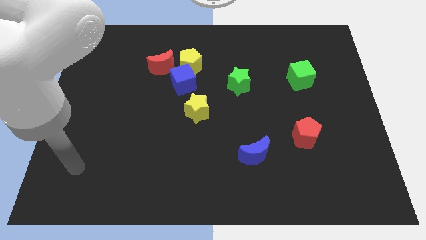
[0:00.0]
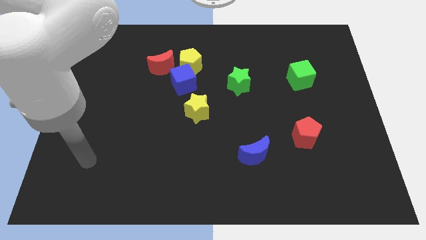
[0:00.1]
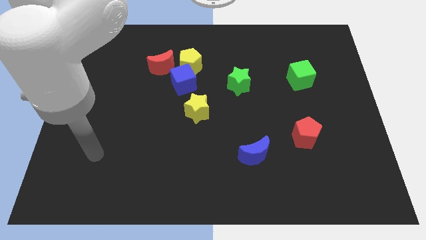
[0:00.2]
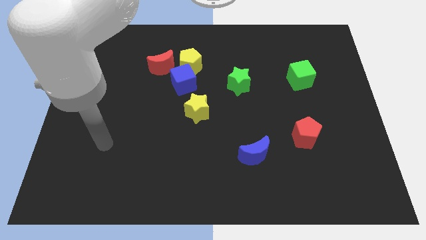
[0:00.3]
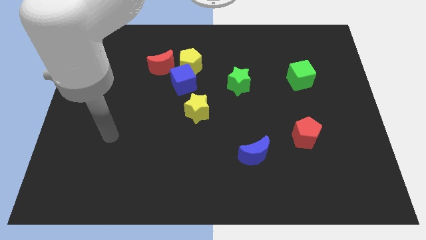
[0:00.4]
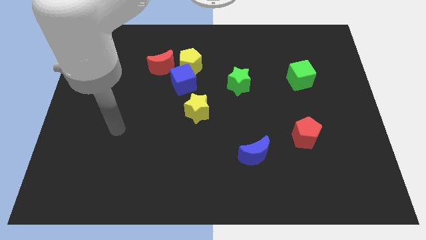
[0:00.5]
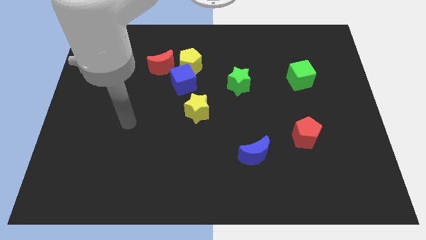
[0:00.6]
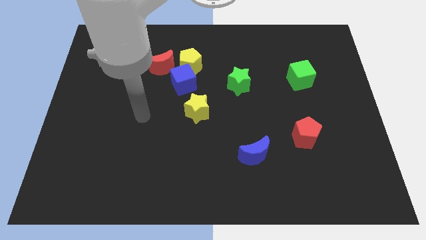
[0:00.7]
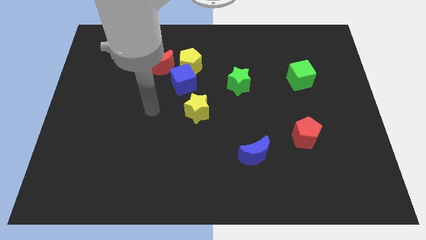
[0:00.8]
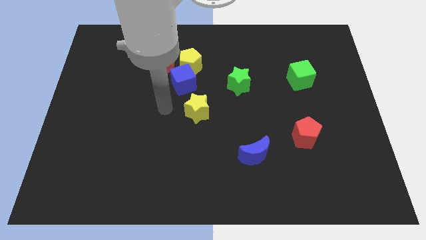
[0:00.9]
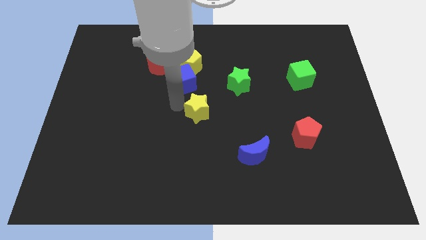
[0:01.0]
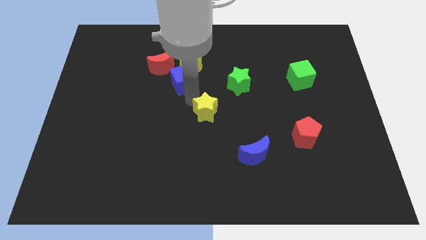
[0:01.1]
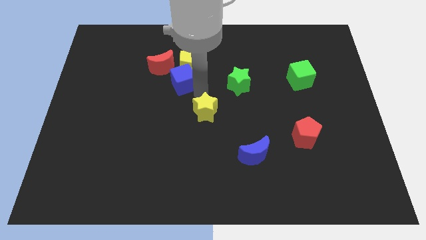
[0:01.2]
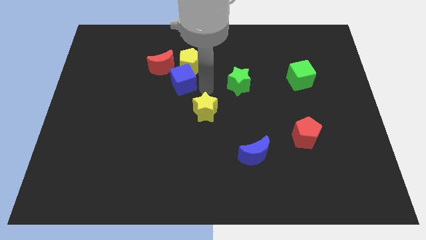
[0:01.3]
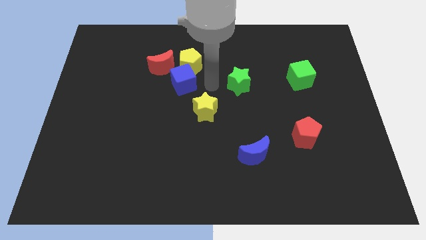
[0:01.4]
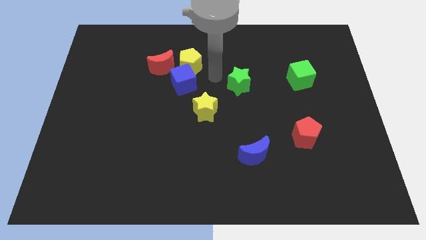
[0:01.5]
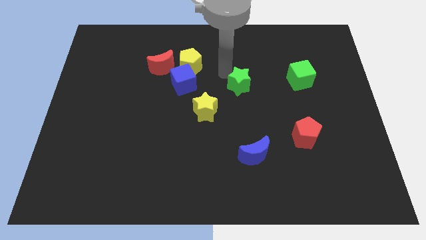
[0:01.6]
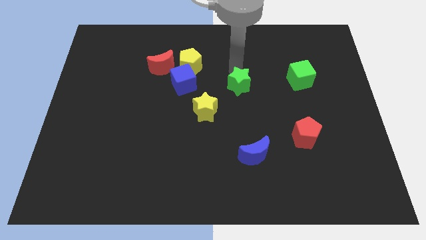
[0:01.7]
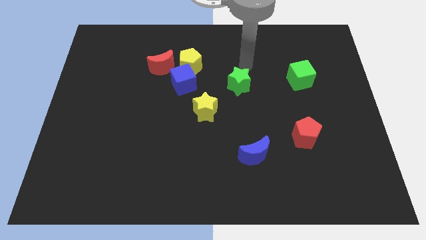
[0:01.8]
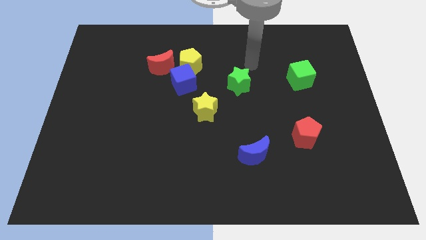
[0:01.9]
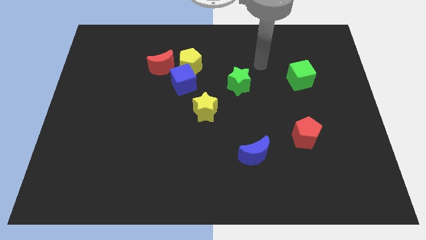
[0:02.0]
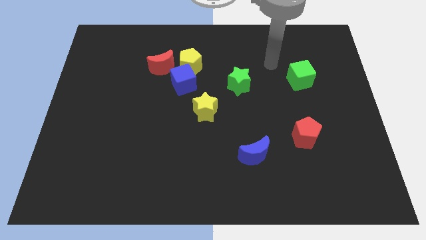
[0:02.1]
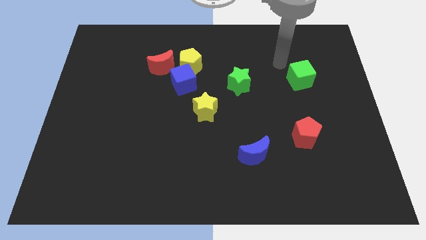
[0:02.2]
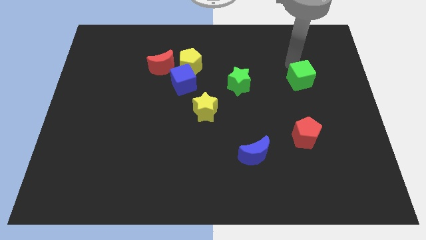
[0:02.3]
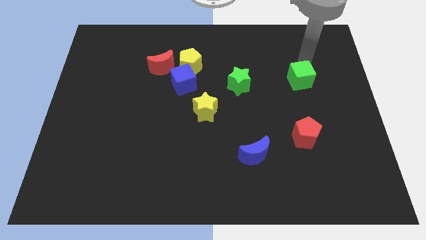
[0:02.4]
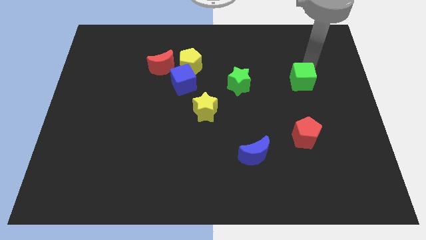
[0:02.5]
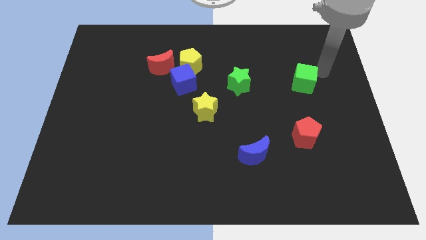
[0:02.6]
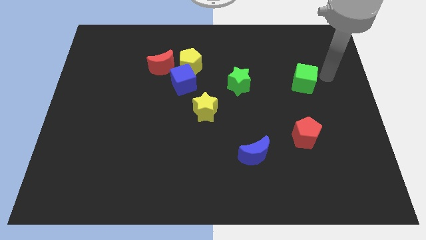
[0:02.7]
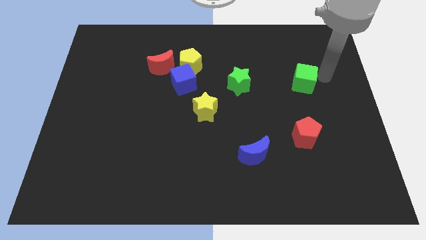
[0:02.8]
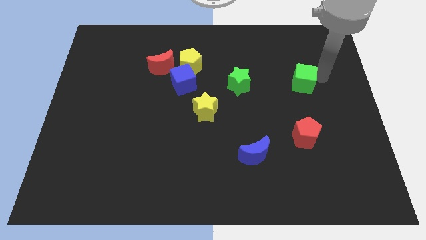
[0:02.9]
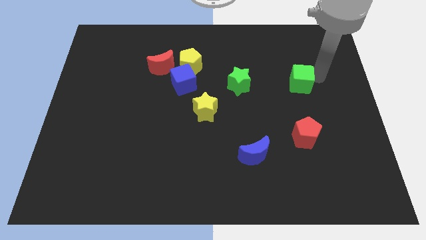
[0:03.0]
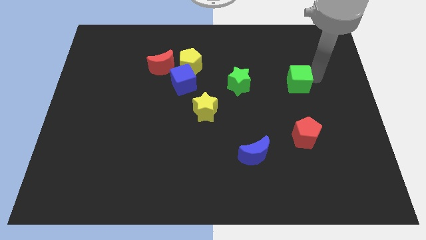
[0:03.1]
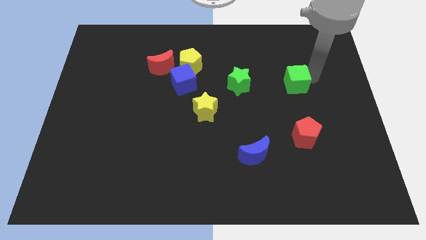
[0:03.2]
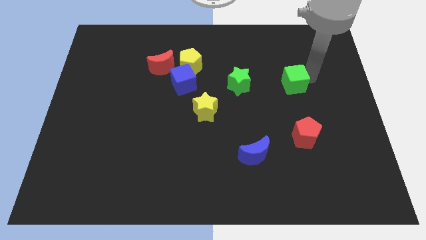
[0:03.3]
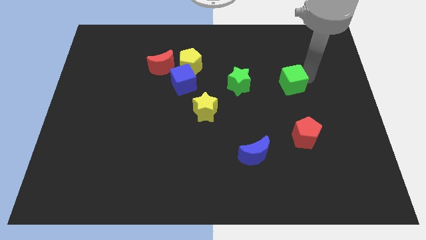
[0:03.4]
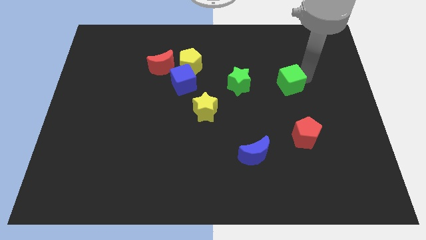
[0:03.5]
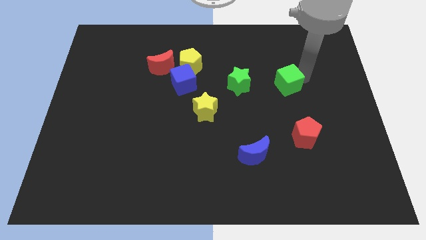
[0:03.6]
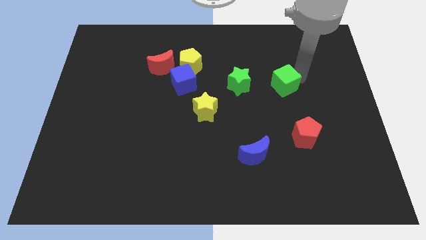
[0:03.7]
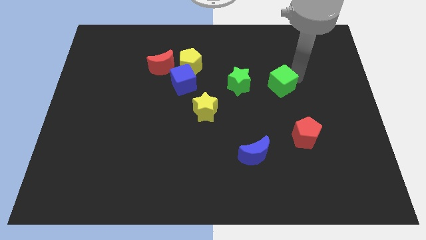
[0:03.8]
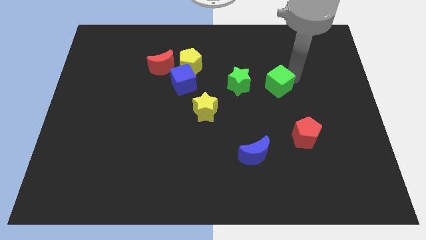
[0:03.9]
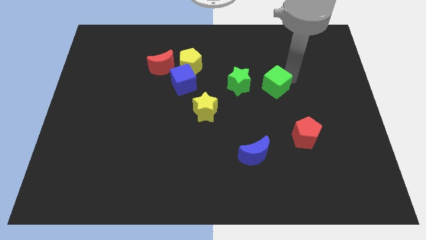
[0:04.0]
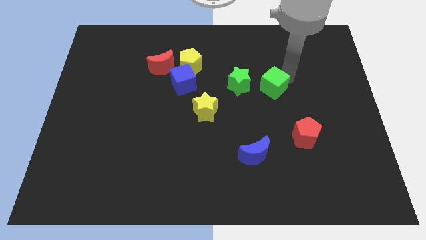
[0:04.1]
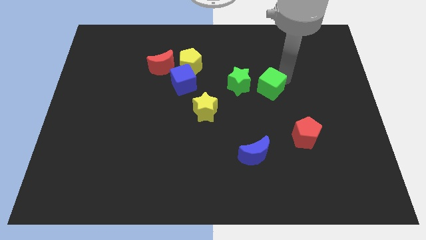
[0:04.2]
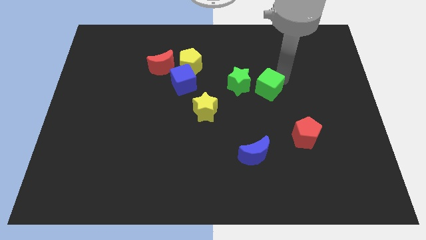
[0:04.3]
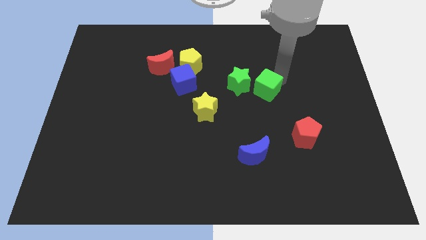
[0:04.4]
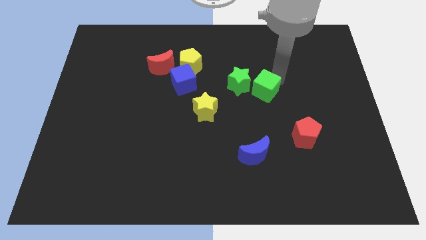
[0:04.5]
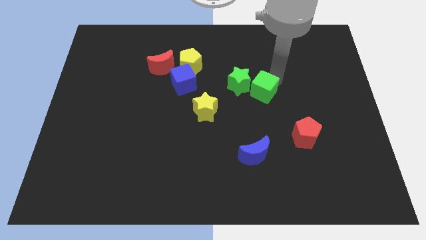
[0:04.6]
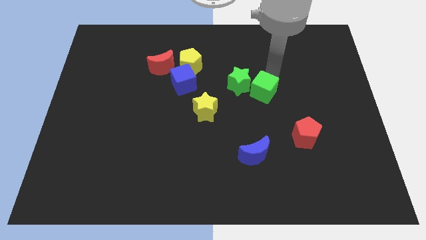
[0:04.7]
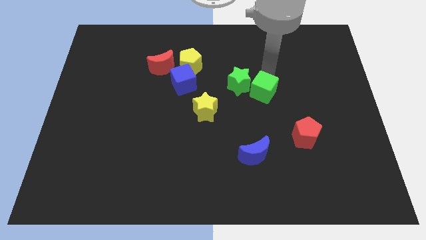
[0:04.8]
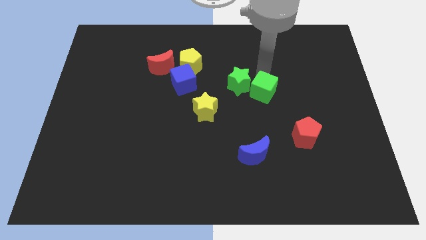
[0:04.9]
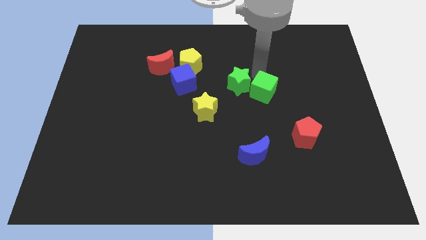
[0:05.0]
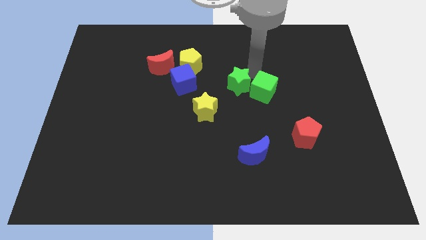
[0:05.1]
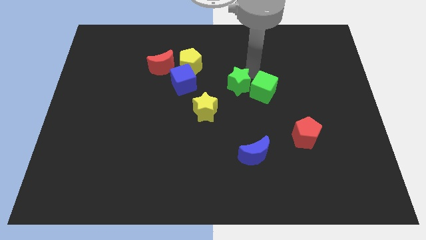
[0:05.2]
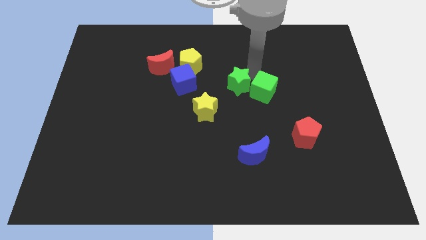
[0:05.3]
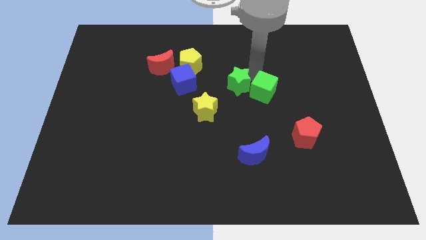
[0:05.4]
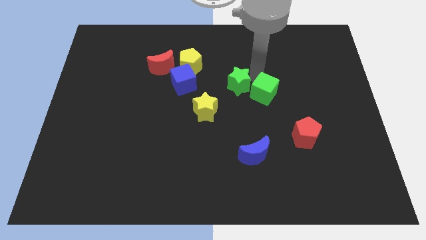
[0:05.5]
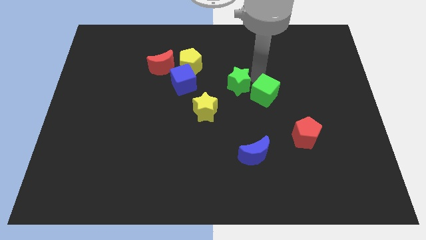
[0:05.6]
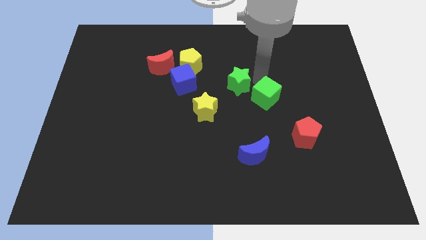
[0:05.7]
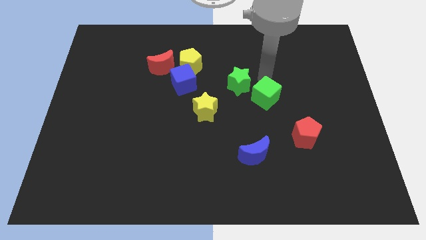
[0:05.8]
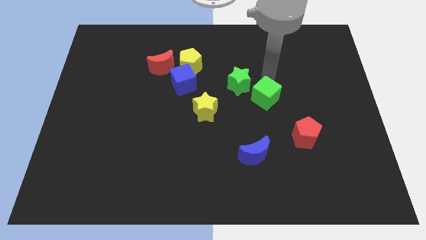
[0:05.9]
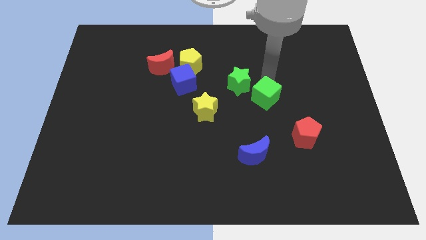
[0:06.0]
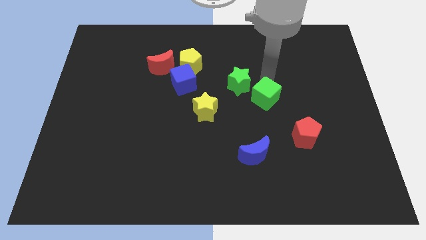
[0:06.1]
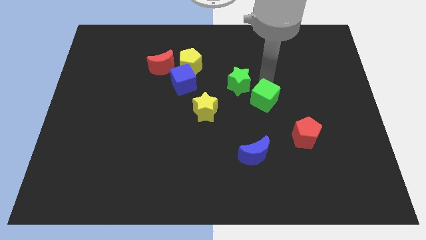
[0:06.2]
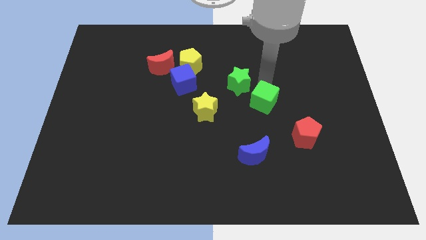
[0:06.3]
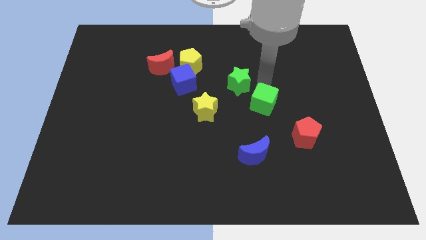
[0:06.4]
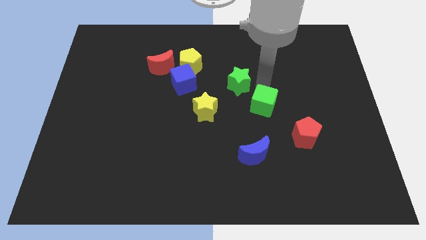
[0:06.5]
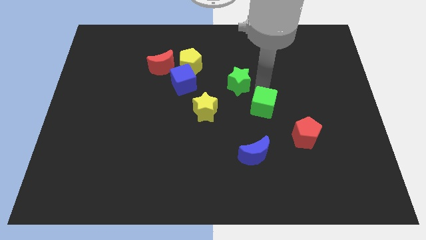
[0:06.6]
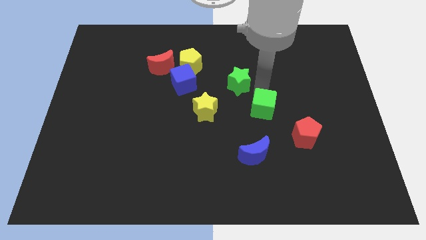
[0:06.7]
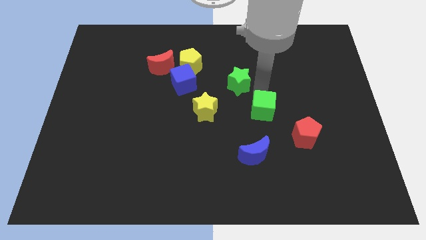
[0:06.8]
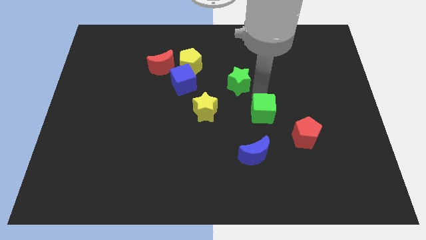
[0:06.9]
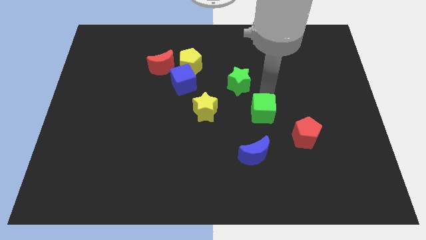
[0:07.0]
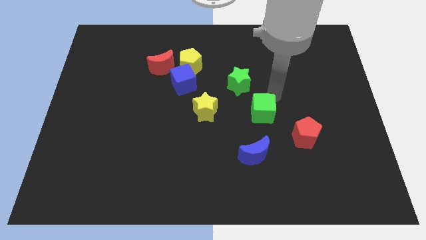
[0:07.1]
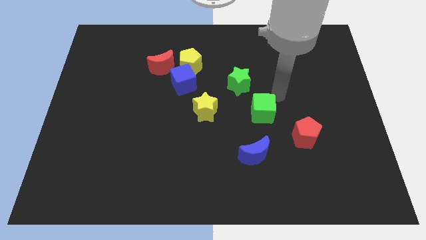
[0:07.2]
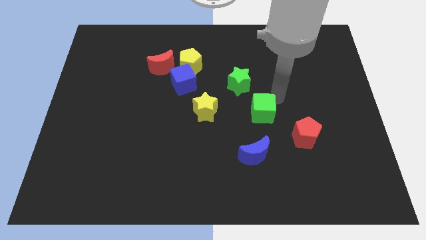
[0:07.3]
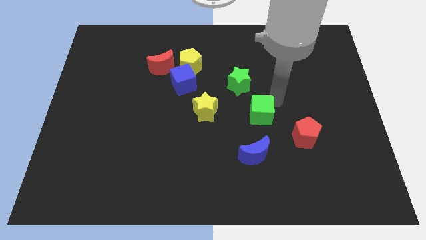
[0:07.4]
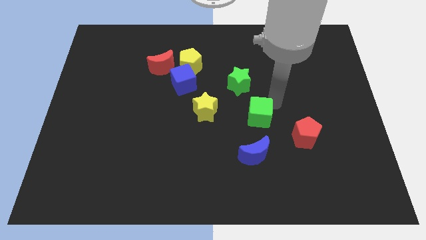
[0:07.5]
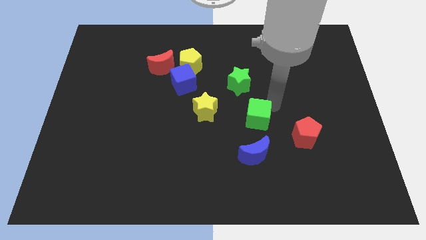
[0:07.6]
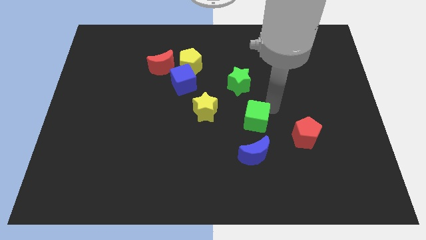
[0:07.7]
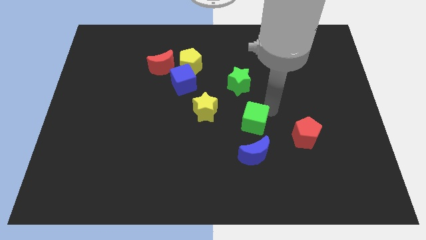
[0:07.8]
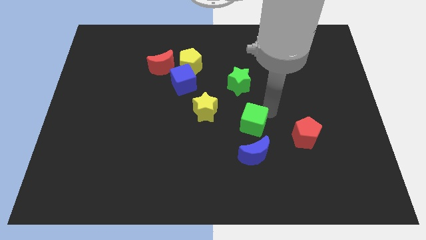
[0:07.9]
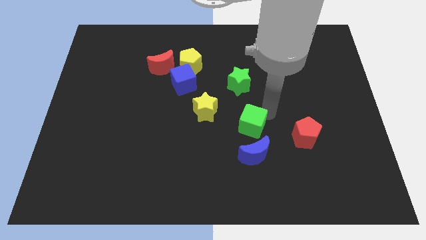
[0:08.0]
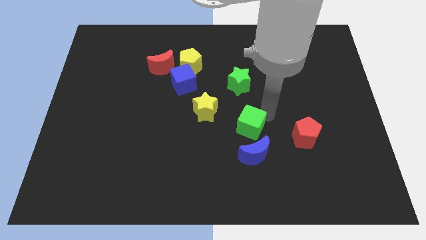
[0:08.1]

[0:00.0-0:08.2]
push the green cube downwards and to the left diagonally

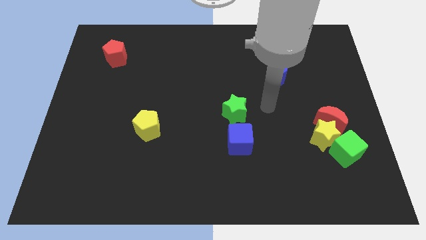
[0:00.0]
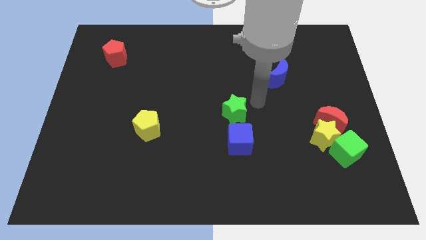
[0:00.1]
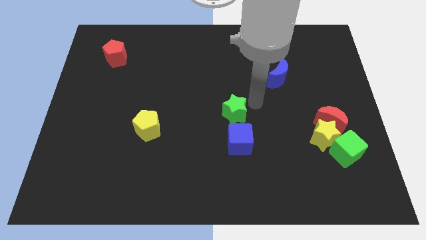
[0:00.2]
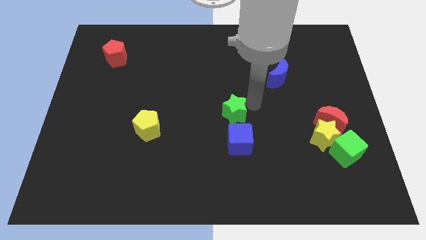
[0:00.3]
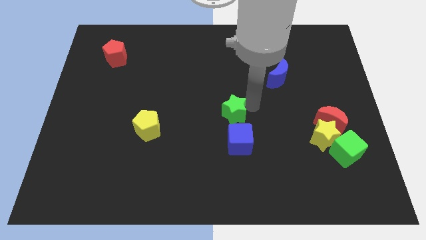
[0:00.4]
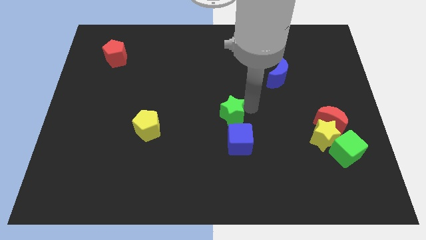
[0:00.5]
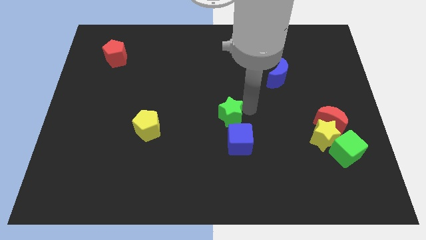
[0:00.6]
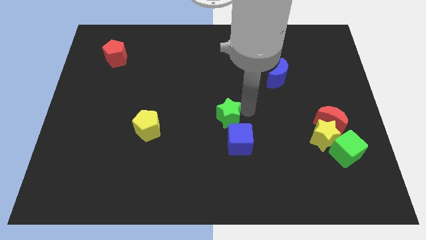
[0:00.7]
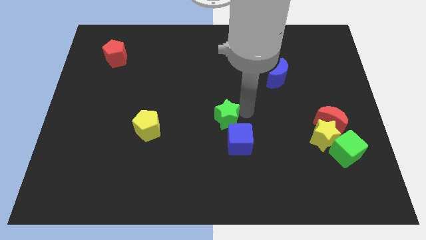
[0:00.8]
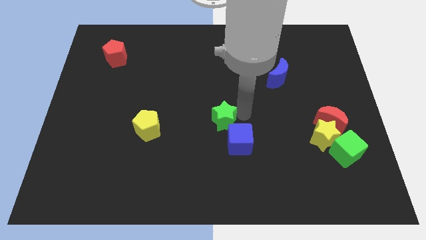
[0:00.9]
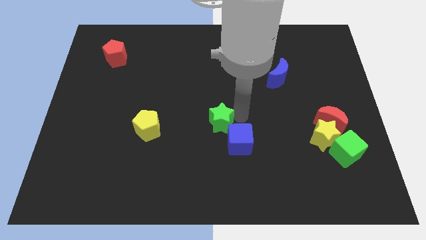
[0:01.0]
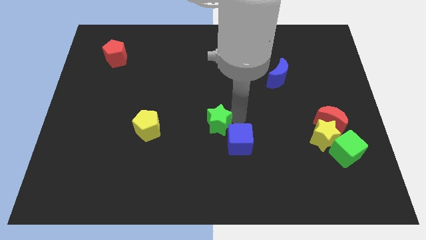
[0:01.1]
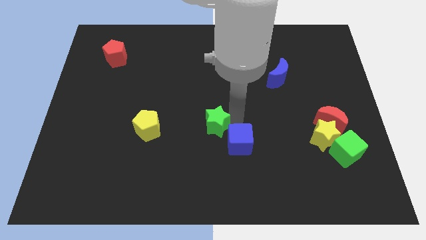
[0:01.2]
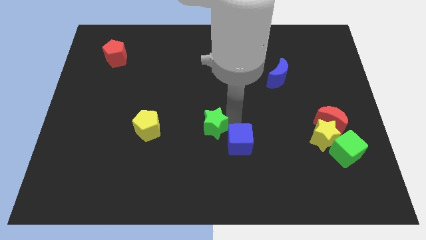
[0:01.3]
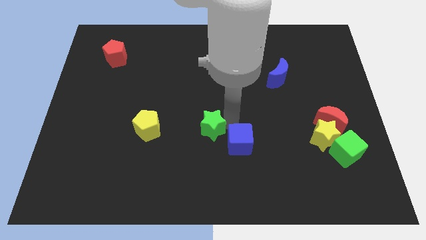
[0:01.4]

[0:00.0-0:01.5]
slightly push the green star diagonally down and left
